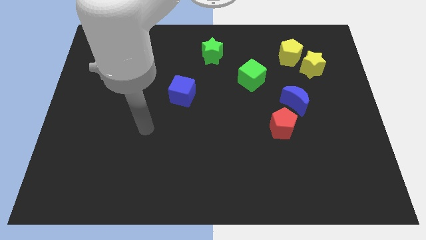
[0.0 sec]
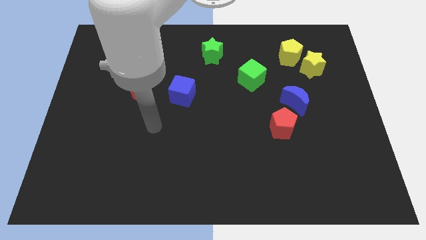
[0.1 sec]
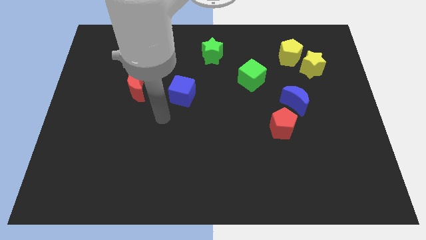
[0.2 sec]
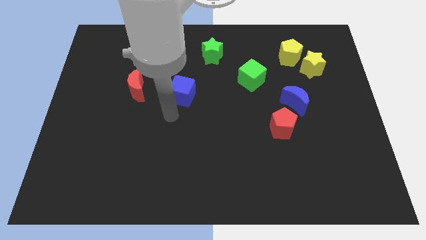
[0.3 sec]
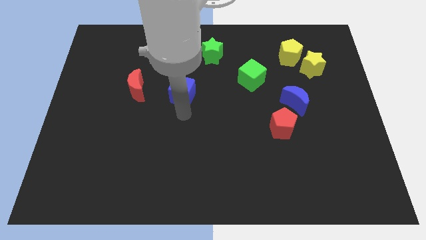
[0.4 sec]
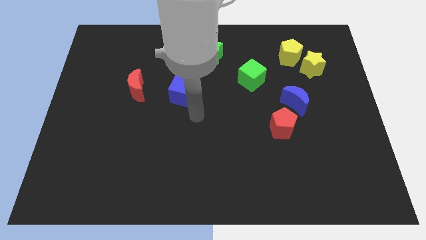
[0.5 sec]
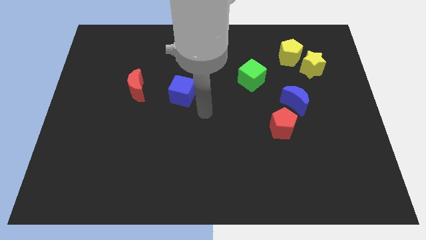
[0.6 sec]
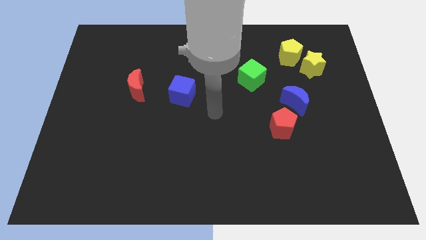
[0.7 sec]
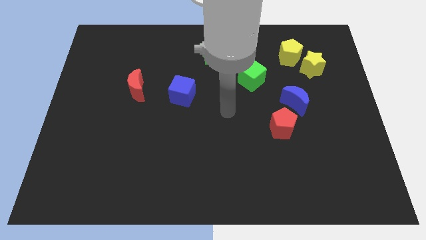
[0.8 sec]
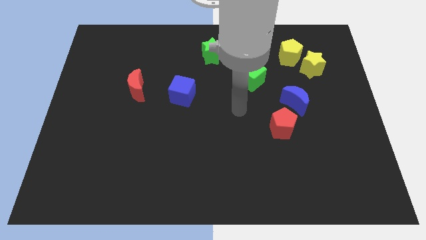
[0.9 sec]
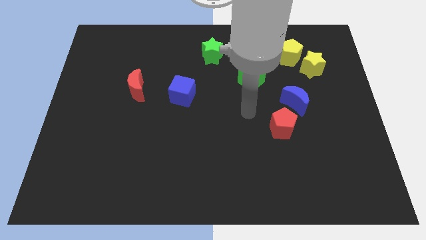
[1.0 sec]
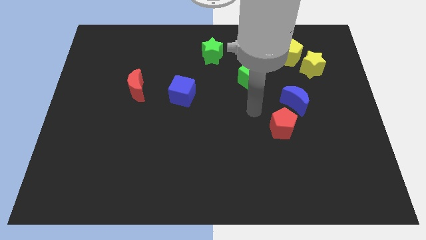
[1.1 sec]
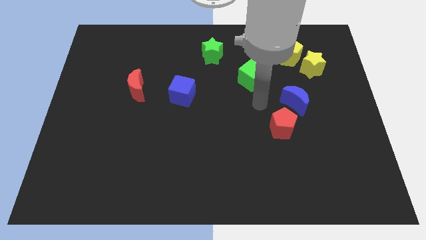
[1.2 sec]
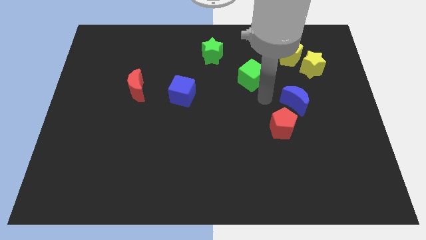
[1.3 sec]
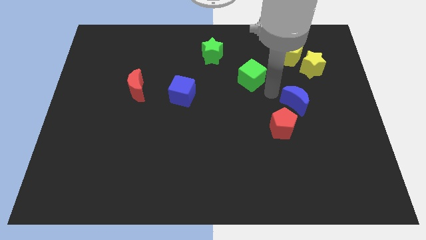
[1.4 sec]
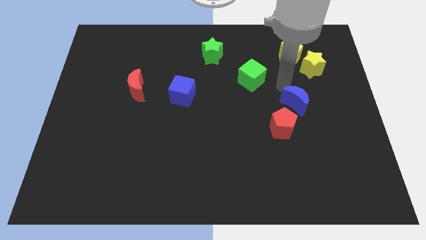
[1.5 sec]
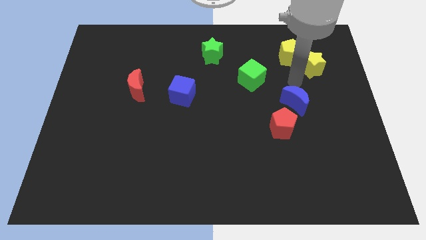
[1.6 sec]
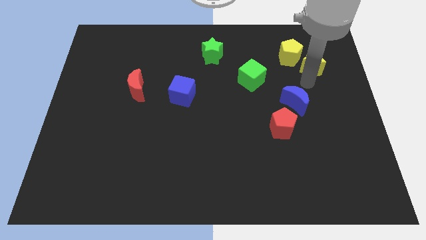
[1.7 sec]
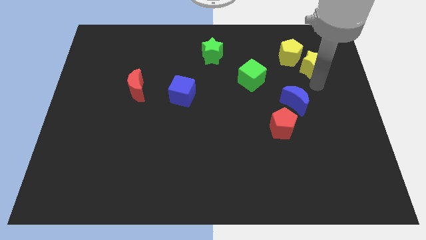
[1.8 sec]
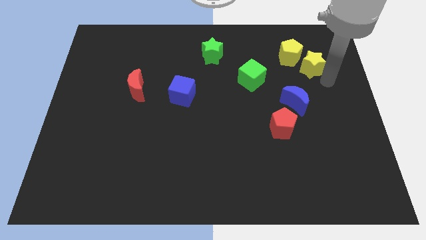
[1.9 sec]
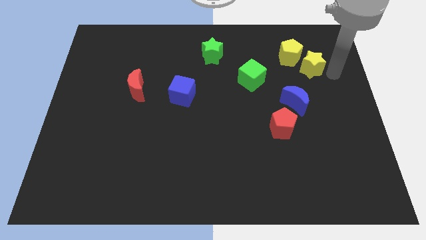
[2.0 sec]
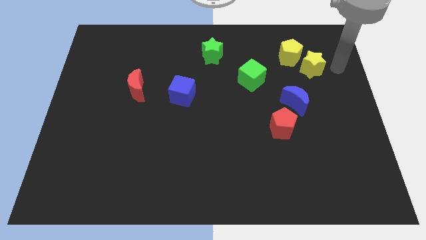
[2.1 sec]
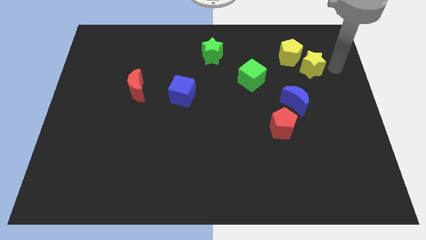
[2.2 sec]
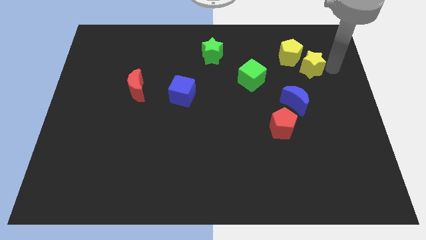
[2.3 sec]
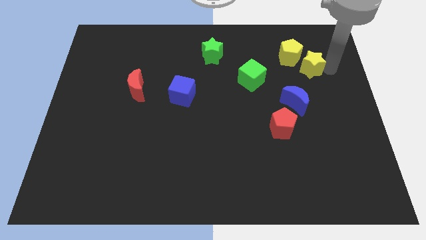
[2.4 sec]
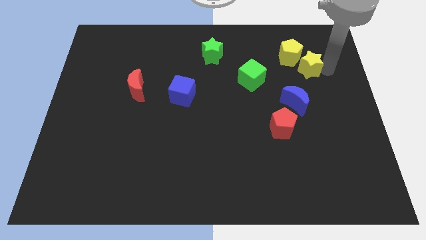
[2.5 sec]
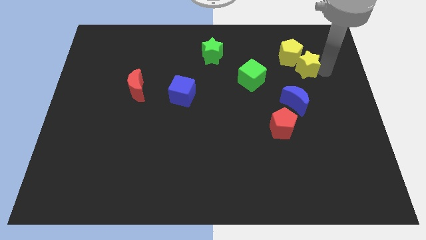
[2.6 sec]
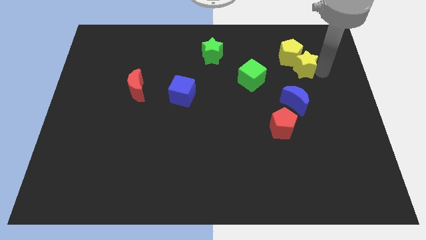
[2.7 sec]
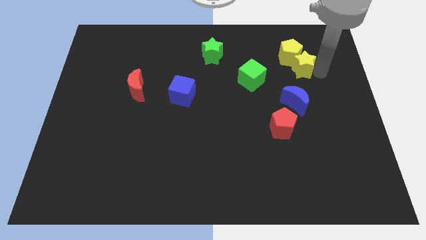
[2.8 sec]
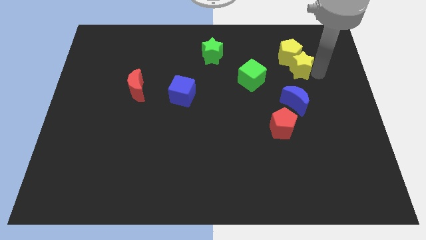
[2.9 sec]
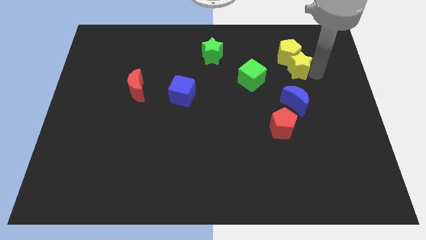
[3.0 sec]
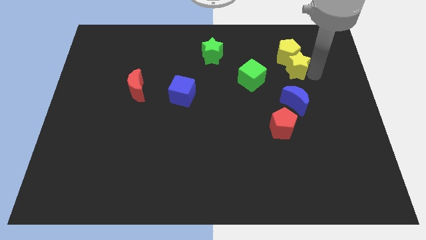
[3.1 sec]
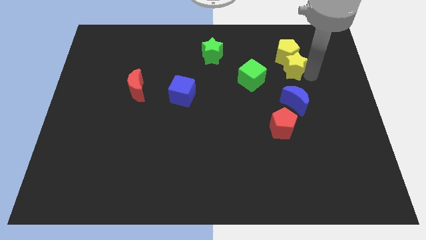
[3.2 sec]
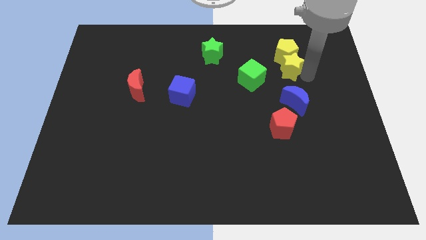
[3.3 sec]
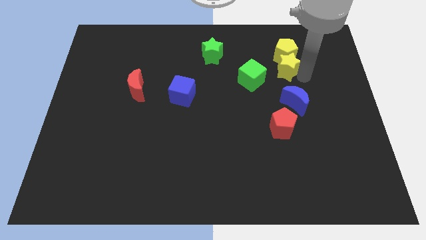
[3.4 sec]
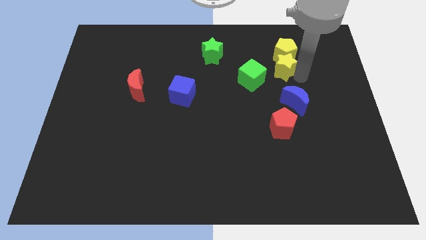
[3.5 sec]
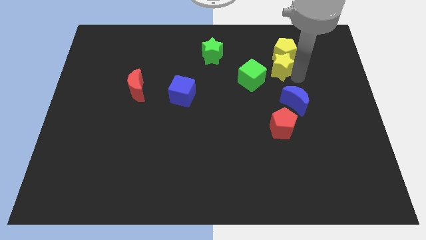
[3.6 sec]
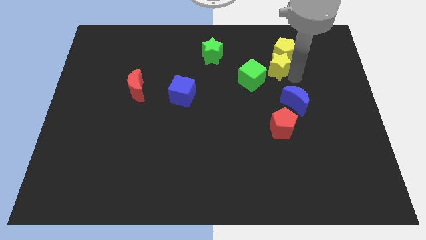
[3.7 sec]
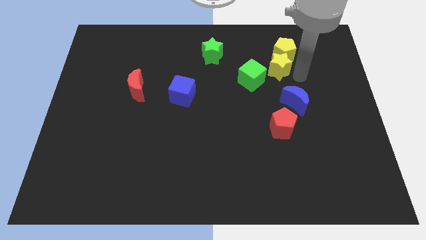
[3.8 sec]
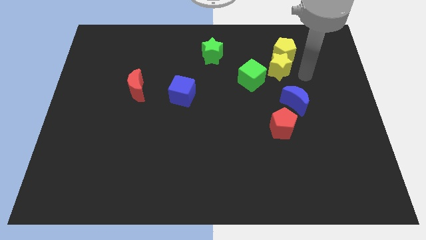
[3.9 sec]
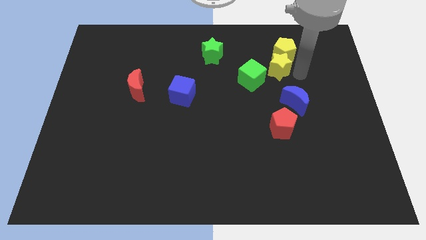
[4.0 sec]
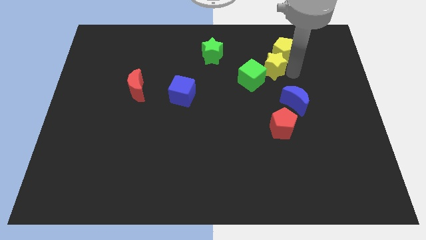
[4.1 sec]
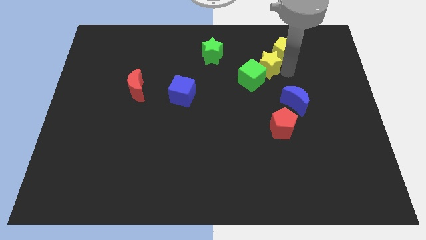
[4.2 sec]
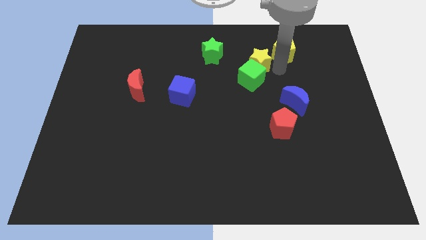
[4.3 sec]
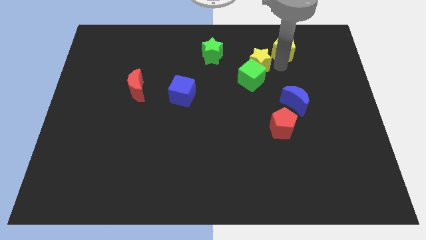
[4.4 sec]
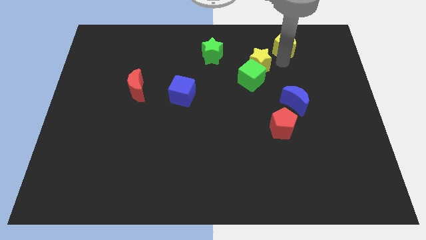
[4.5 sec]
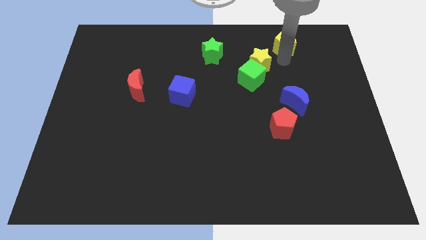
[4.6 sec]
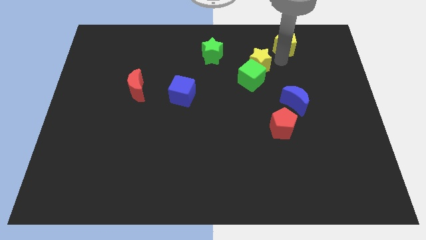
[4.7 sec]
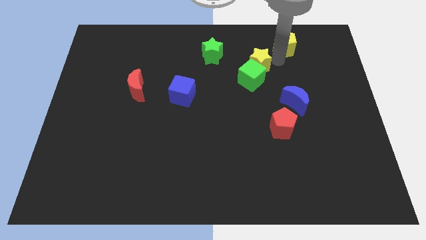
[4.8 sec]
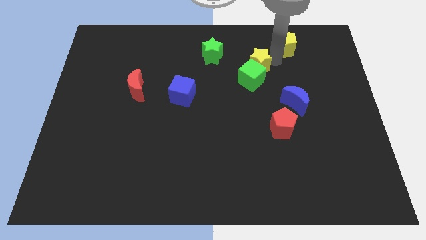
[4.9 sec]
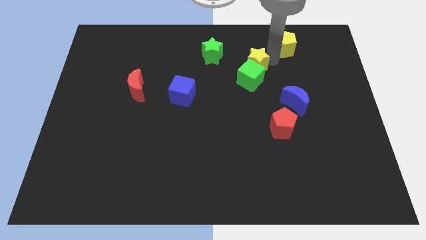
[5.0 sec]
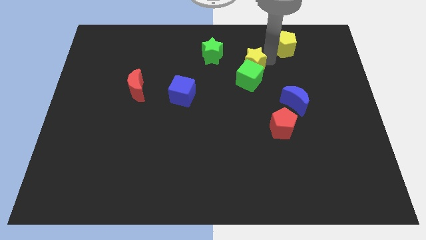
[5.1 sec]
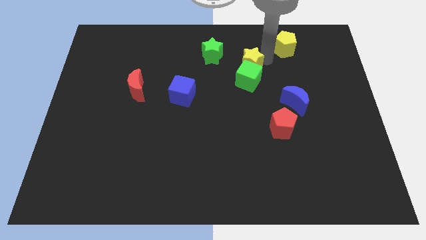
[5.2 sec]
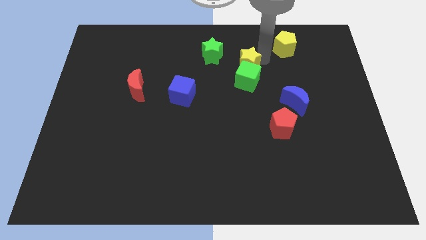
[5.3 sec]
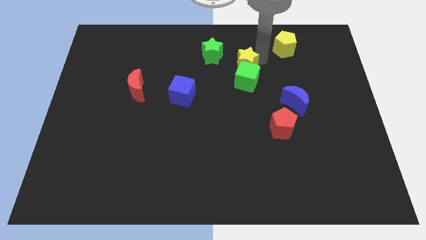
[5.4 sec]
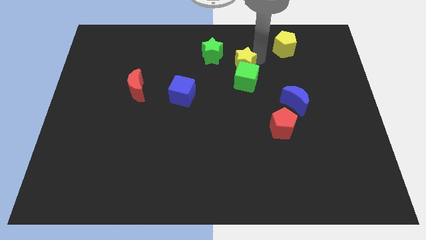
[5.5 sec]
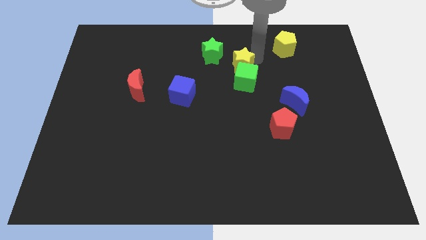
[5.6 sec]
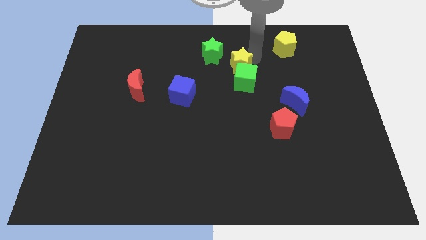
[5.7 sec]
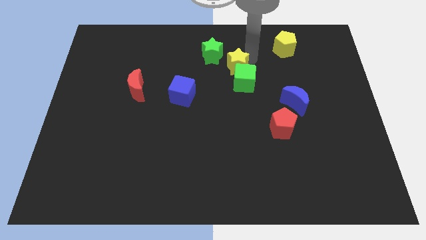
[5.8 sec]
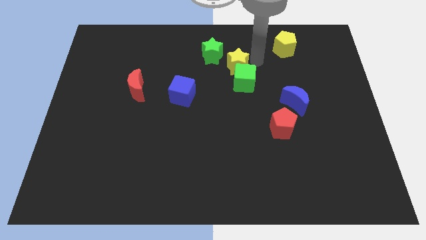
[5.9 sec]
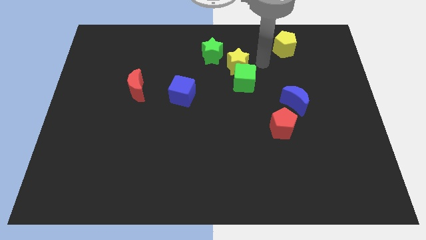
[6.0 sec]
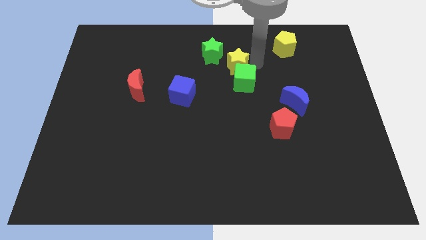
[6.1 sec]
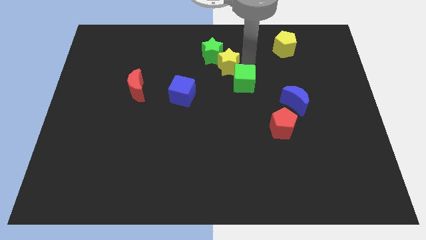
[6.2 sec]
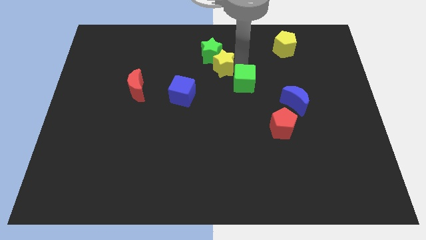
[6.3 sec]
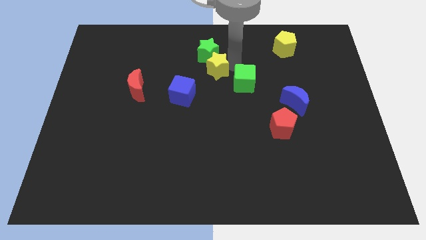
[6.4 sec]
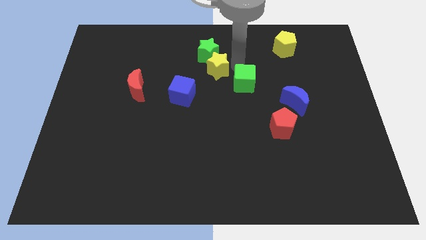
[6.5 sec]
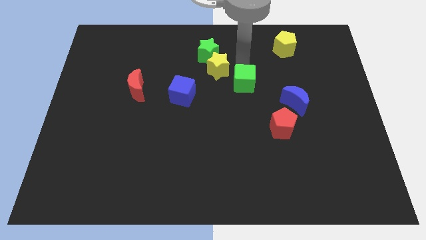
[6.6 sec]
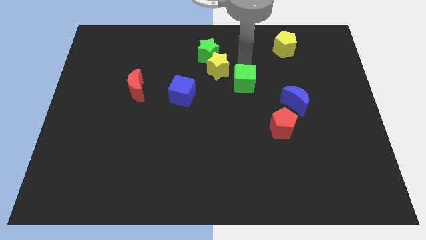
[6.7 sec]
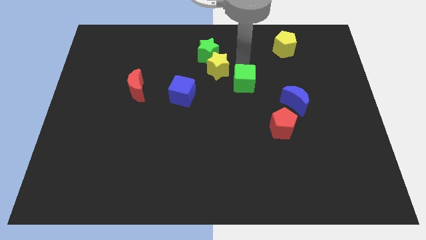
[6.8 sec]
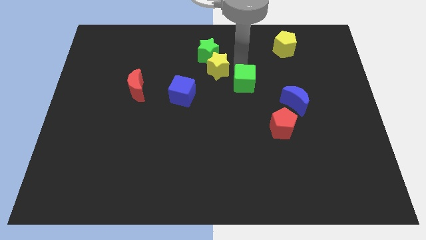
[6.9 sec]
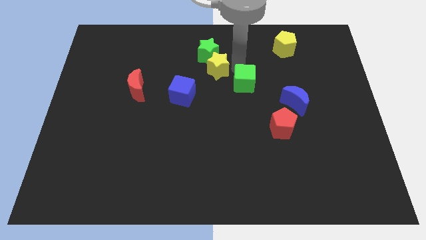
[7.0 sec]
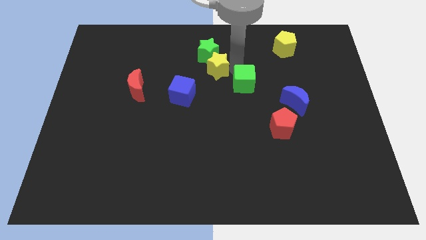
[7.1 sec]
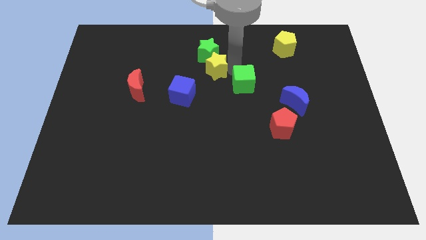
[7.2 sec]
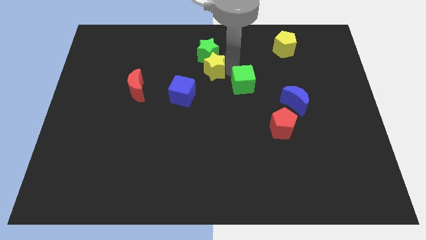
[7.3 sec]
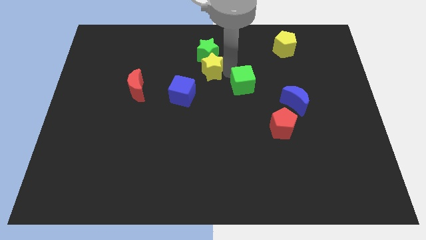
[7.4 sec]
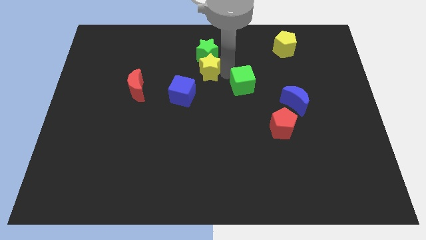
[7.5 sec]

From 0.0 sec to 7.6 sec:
slide the yellow star to the bottom left side of the green star
